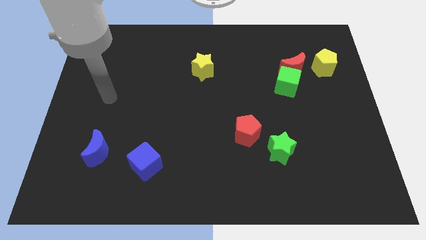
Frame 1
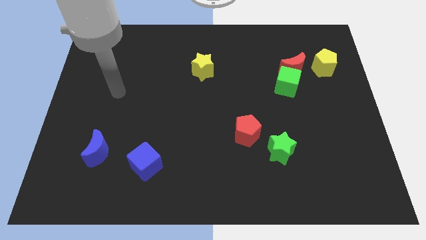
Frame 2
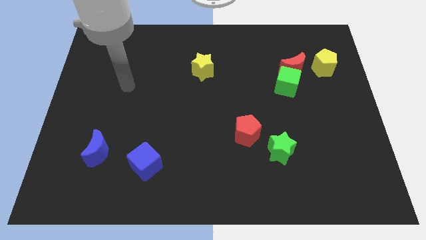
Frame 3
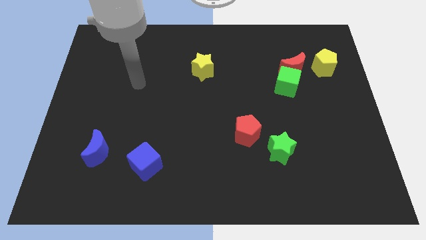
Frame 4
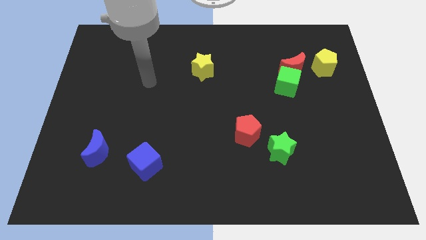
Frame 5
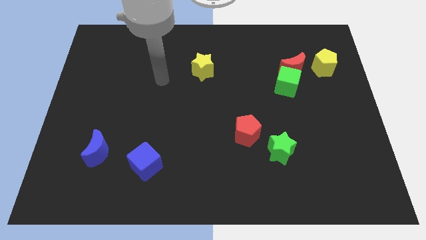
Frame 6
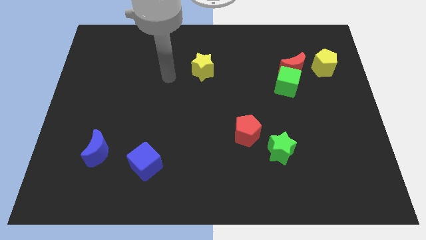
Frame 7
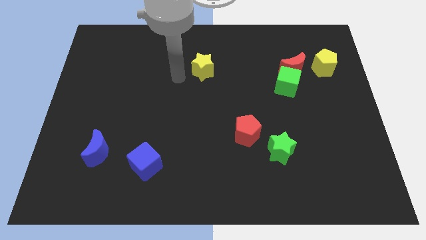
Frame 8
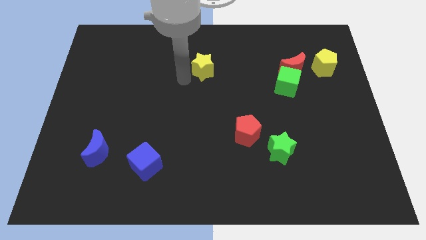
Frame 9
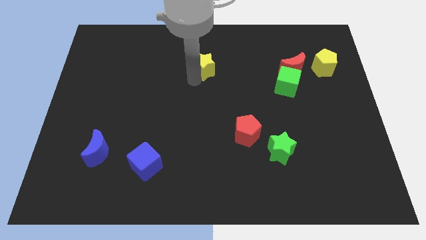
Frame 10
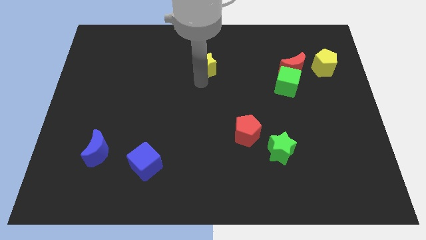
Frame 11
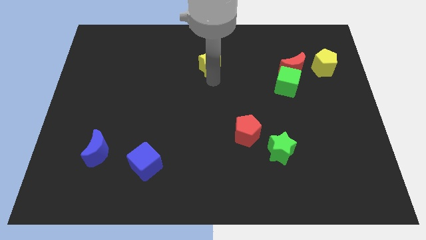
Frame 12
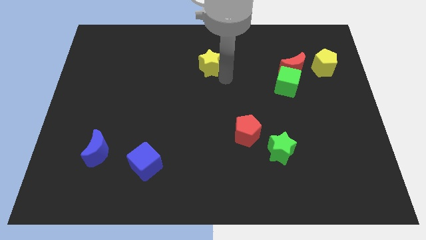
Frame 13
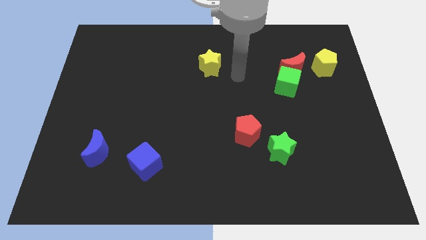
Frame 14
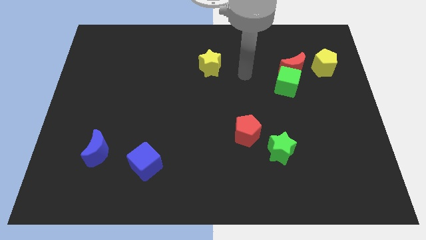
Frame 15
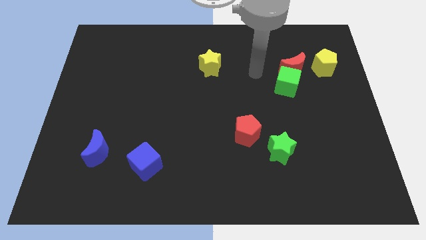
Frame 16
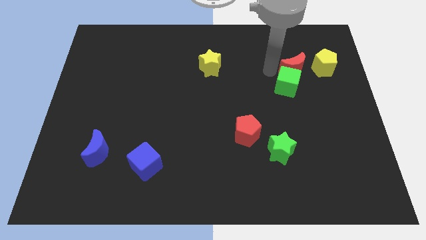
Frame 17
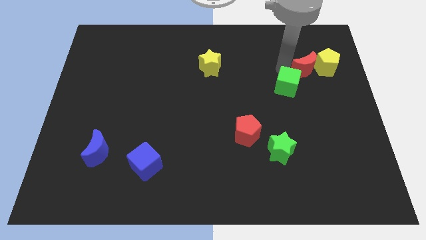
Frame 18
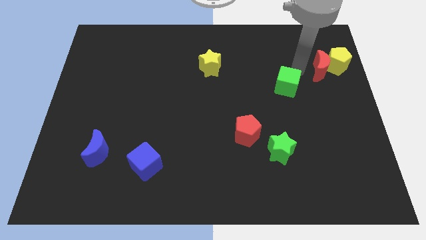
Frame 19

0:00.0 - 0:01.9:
separate the green cube from the red moon

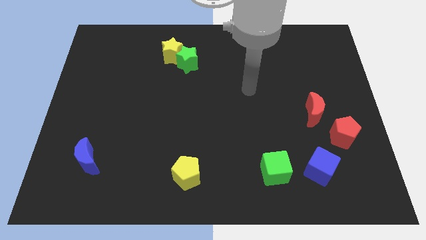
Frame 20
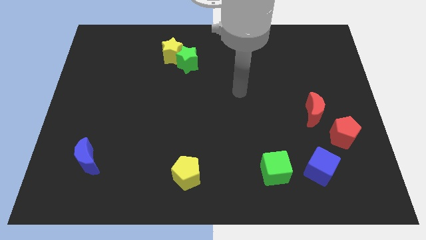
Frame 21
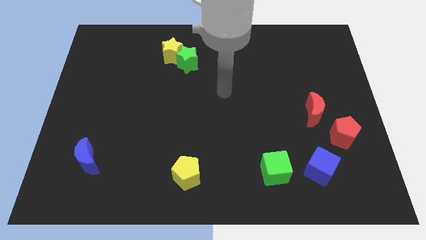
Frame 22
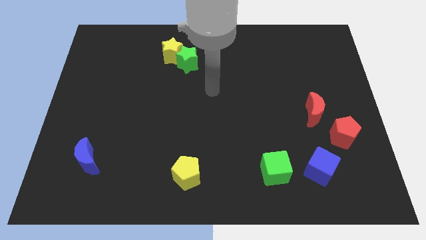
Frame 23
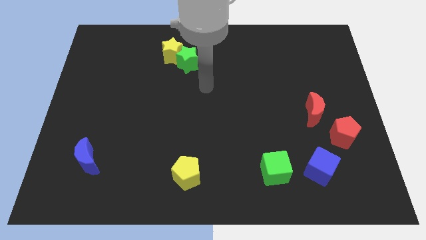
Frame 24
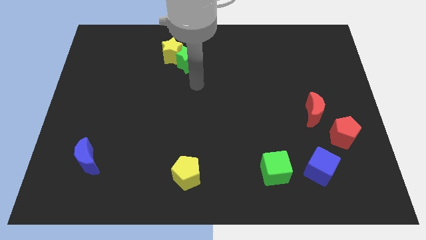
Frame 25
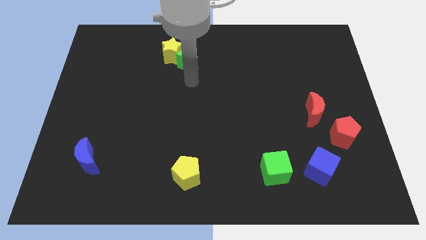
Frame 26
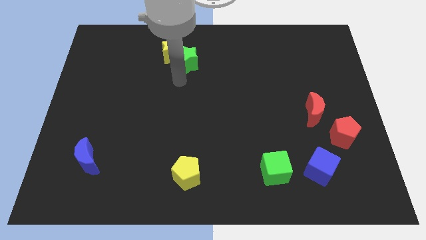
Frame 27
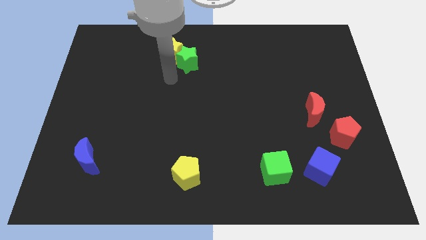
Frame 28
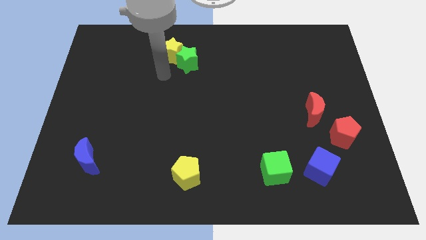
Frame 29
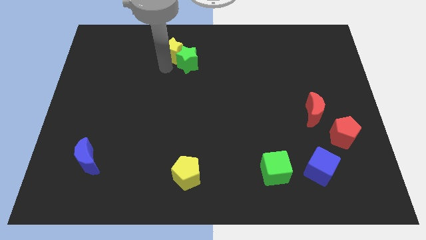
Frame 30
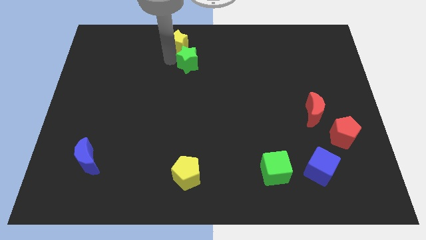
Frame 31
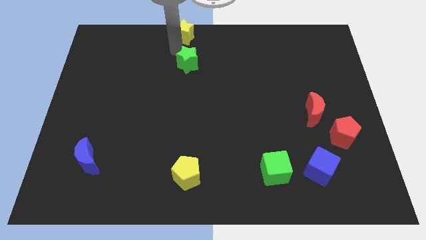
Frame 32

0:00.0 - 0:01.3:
pull the green star apart from the yellow star

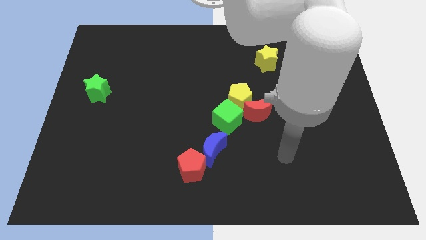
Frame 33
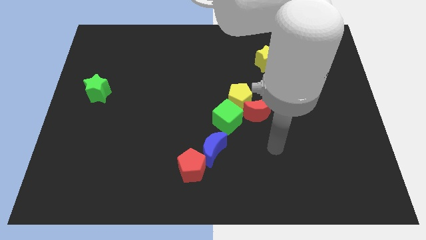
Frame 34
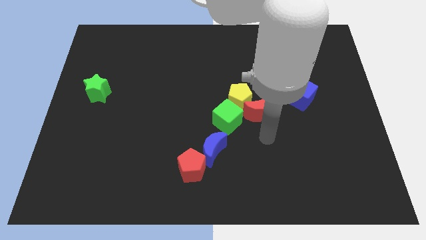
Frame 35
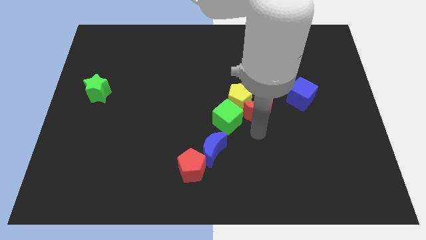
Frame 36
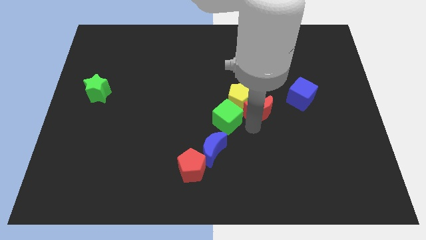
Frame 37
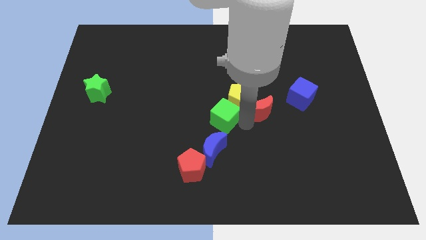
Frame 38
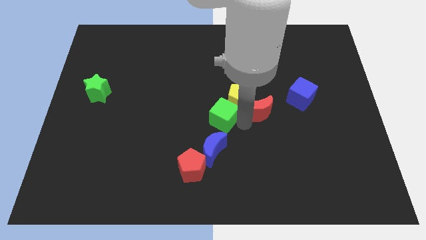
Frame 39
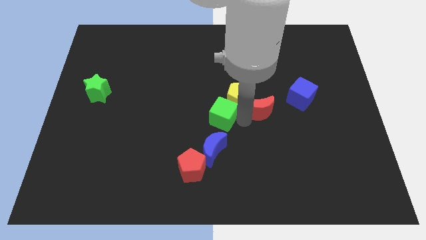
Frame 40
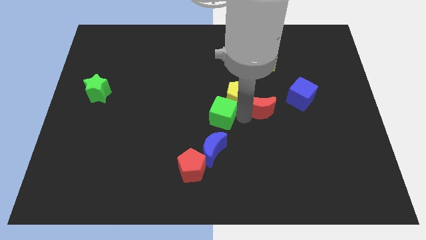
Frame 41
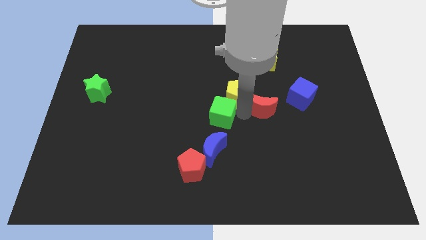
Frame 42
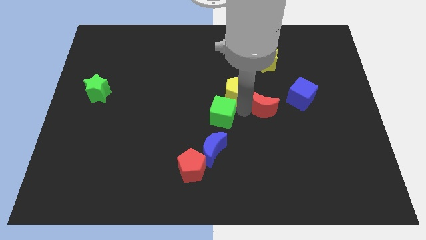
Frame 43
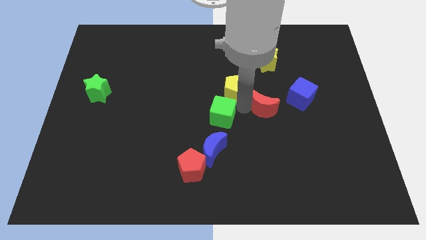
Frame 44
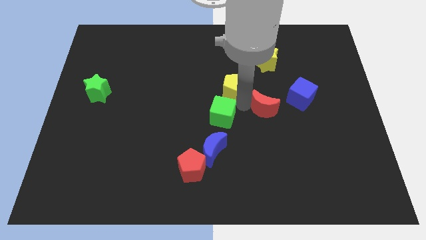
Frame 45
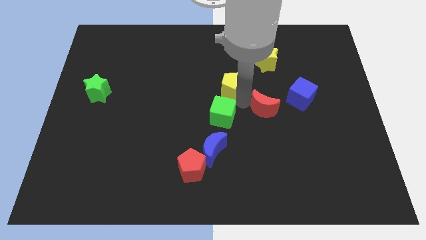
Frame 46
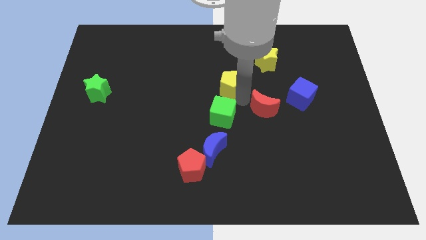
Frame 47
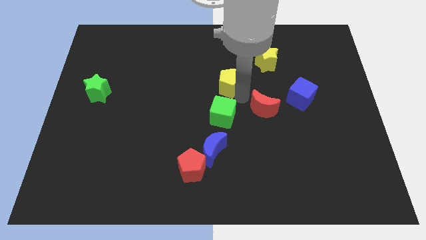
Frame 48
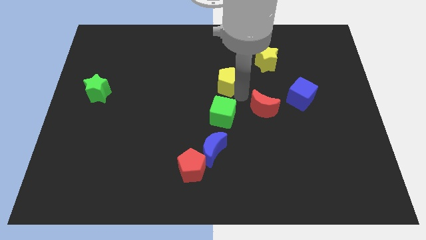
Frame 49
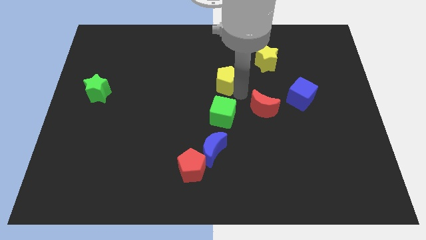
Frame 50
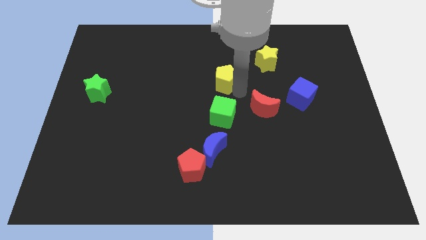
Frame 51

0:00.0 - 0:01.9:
separate the yellow pentagon from the red moon and green cube

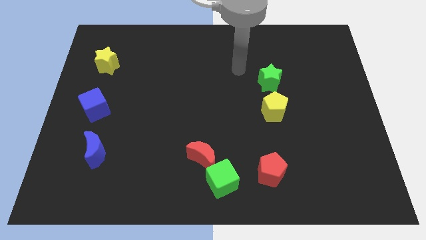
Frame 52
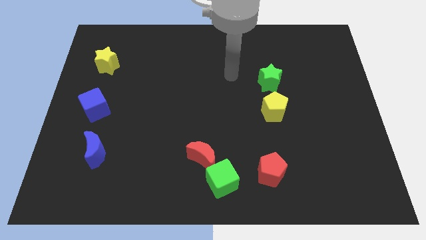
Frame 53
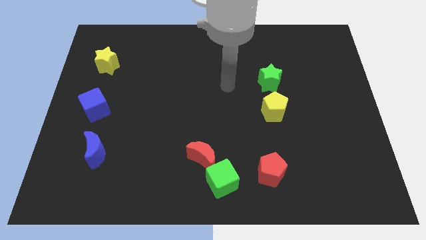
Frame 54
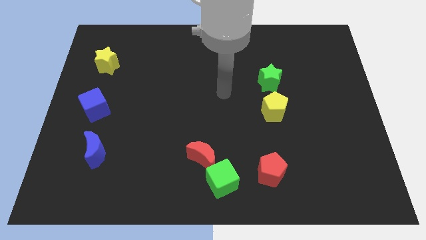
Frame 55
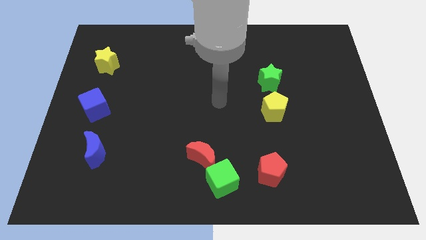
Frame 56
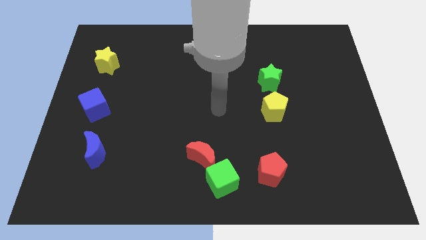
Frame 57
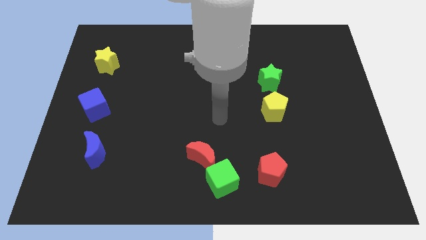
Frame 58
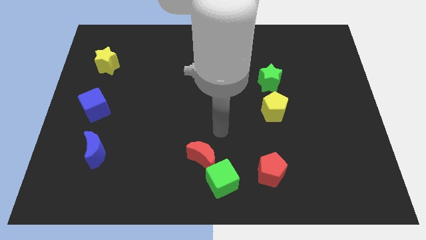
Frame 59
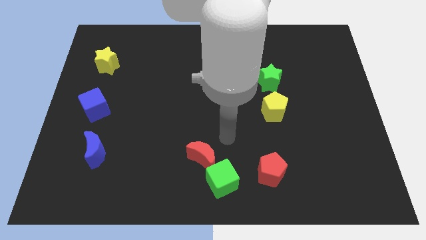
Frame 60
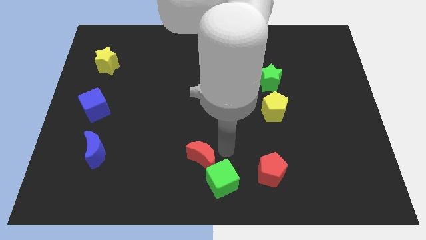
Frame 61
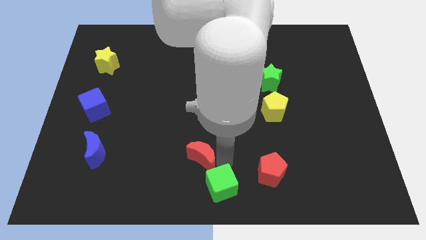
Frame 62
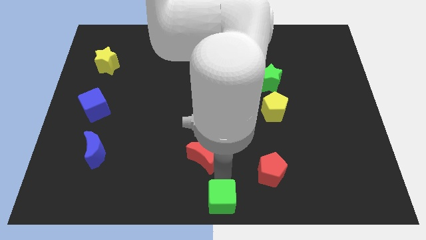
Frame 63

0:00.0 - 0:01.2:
move the red moon away from the green cube

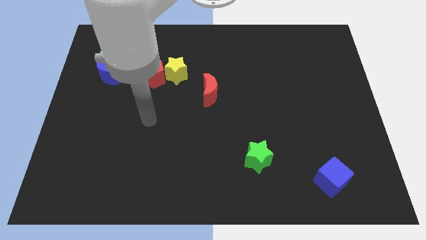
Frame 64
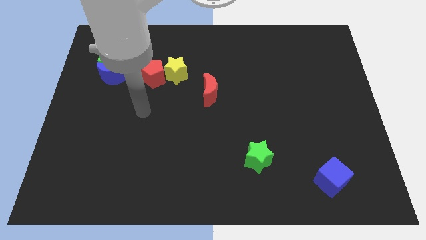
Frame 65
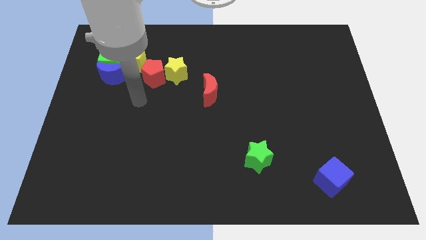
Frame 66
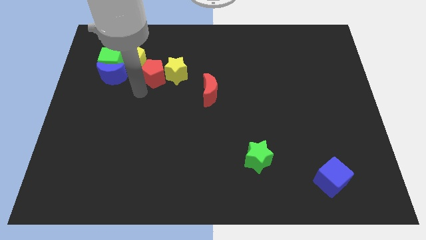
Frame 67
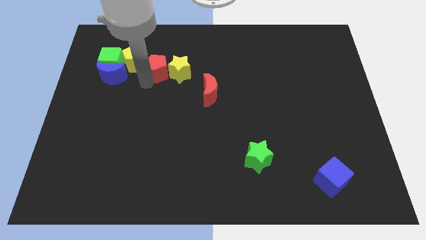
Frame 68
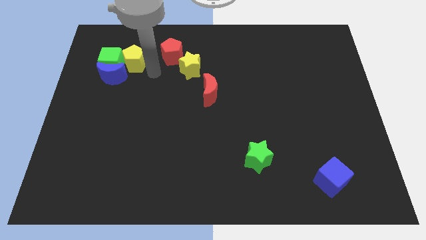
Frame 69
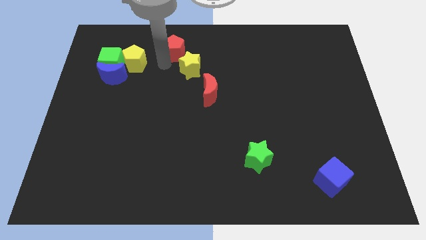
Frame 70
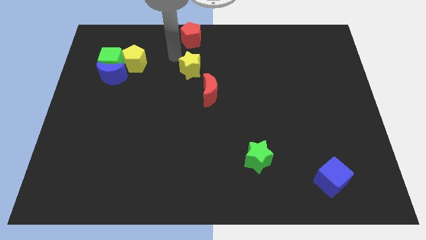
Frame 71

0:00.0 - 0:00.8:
pull the yellow star apart from the red pentagon

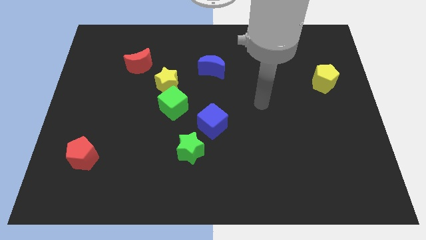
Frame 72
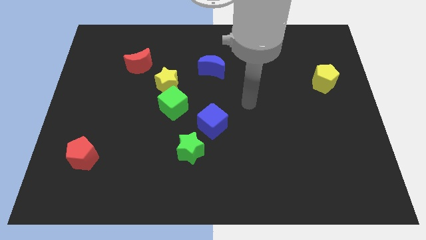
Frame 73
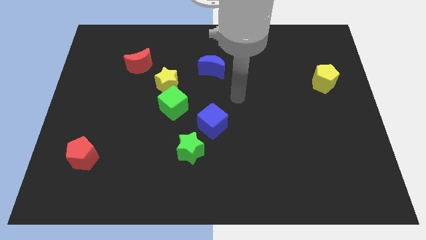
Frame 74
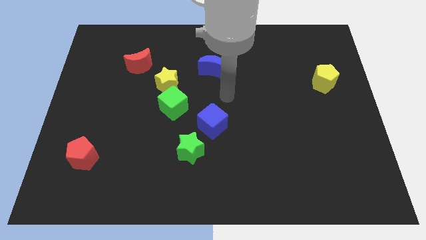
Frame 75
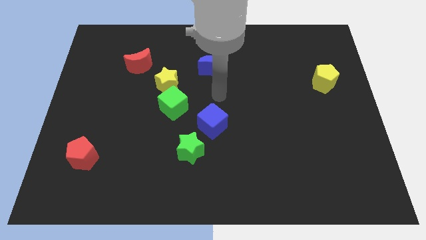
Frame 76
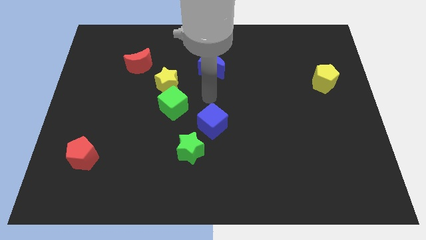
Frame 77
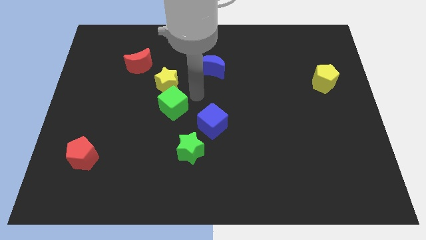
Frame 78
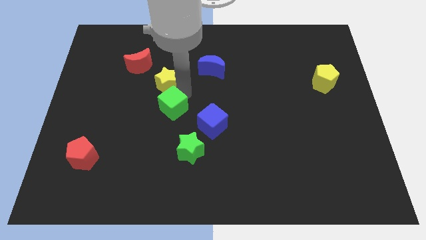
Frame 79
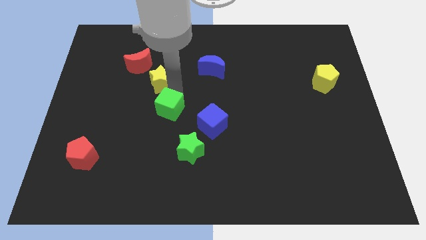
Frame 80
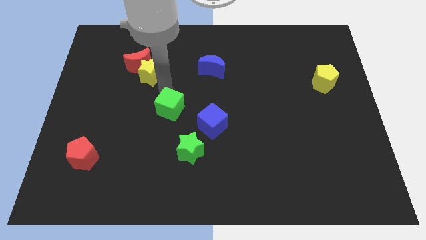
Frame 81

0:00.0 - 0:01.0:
separate the green cube from the yellow star

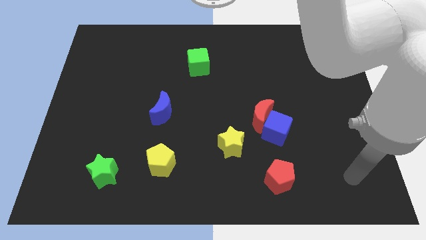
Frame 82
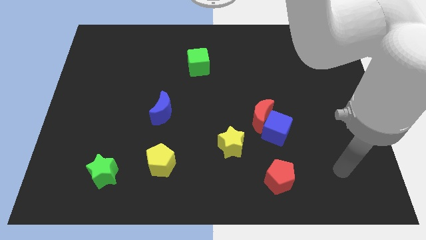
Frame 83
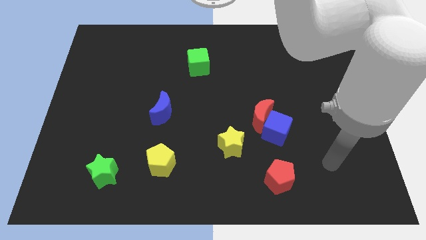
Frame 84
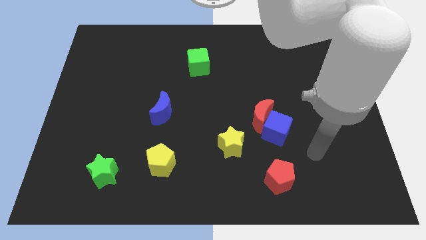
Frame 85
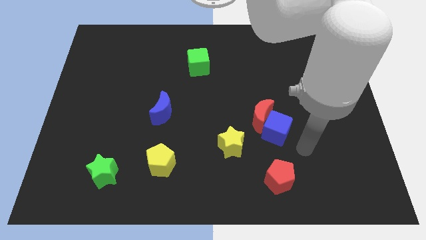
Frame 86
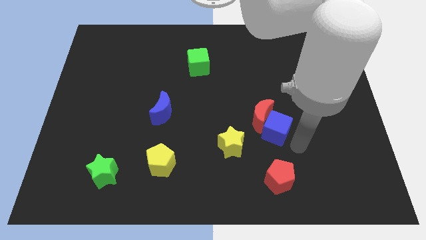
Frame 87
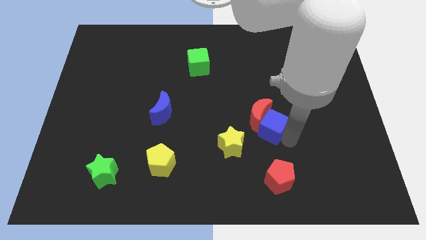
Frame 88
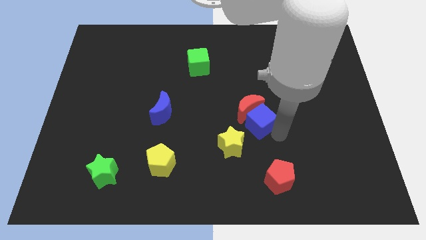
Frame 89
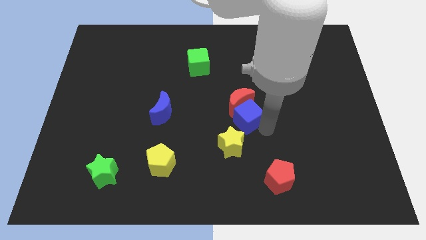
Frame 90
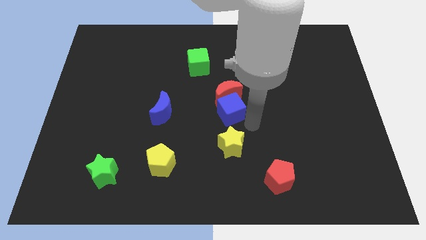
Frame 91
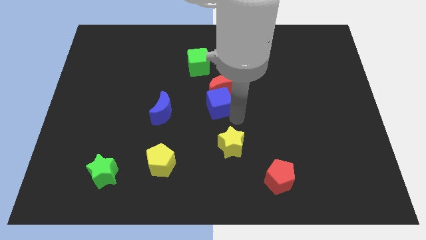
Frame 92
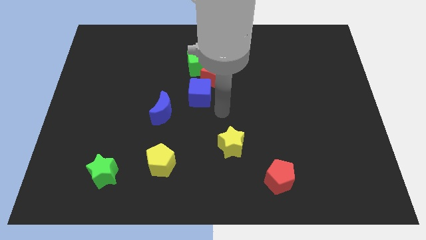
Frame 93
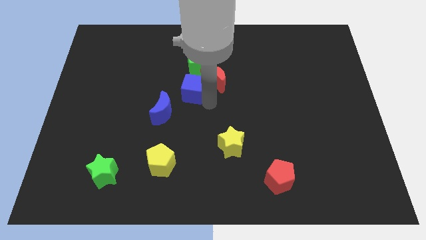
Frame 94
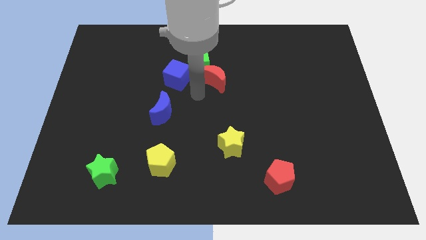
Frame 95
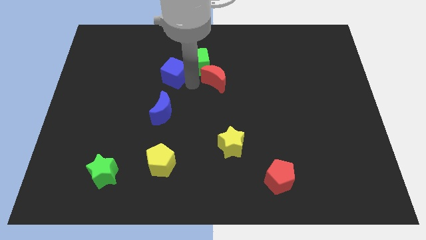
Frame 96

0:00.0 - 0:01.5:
move the red moon away from the blue cube
